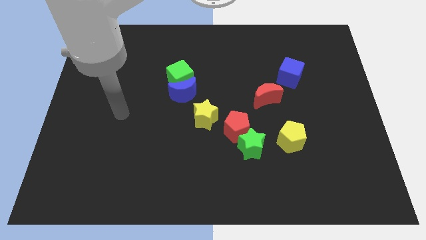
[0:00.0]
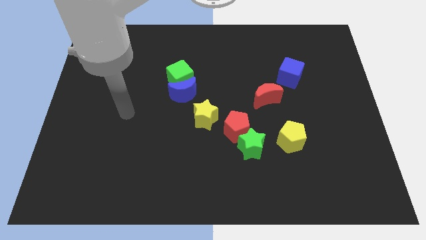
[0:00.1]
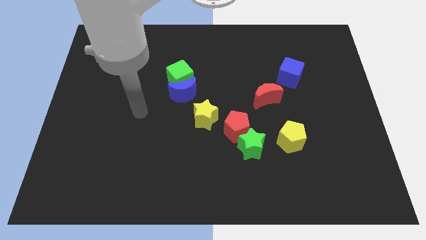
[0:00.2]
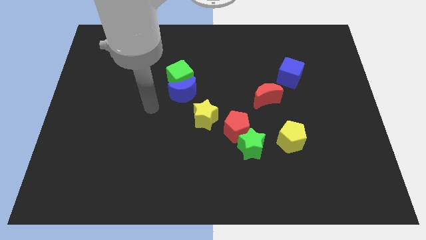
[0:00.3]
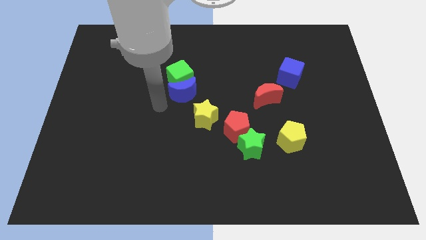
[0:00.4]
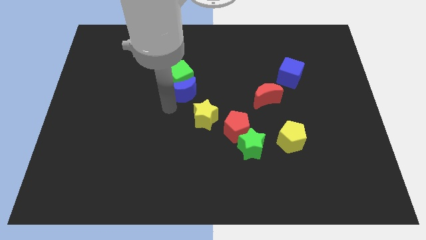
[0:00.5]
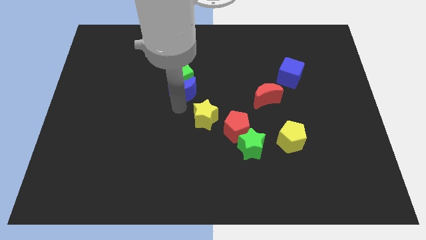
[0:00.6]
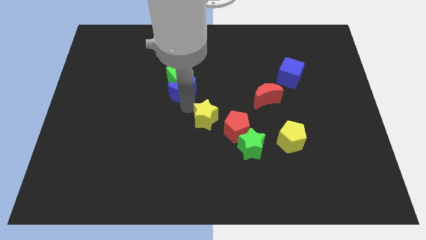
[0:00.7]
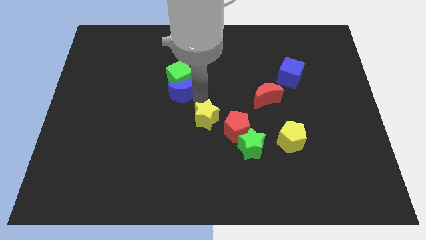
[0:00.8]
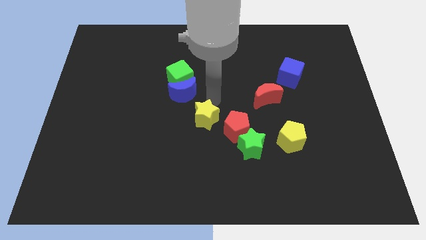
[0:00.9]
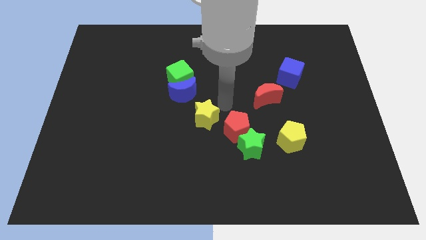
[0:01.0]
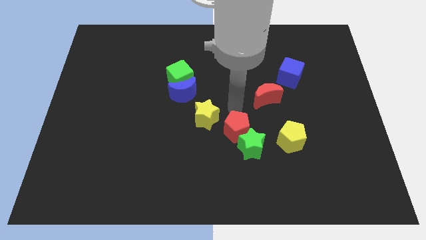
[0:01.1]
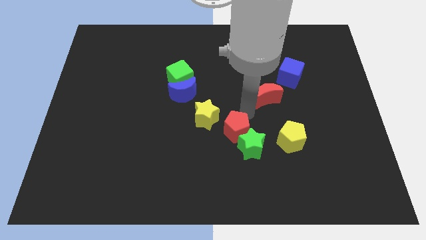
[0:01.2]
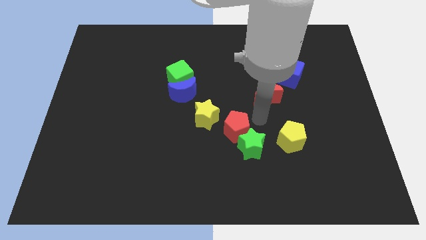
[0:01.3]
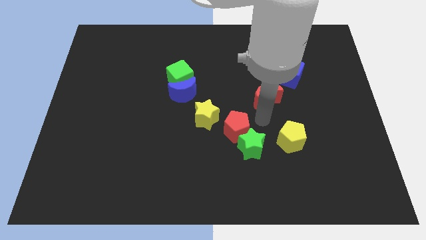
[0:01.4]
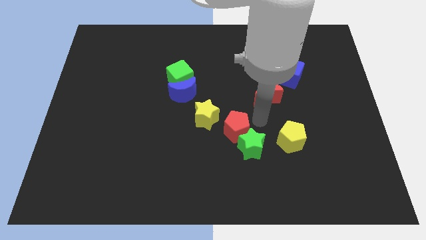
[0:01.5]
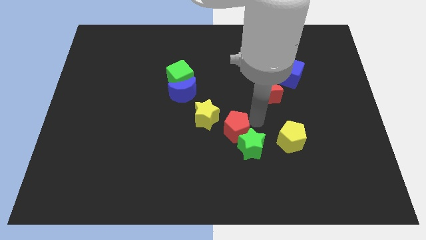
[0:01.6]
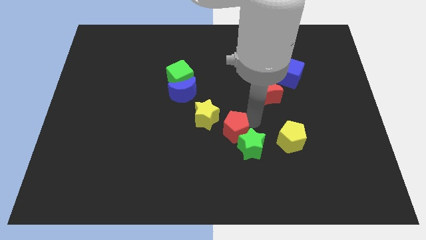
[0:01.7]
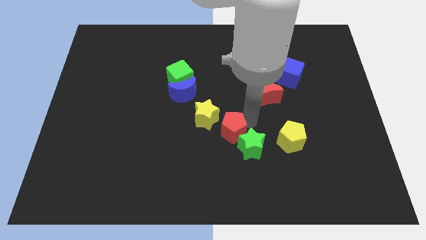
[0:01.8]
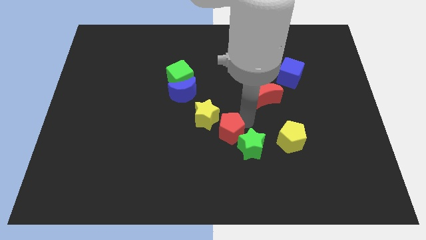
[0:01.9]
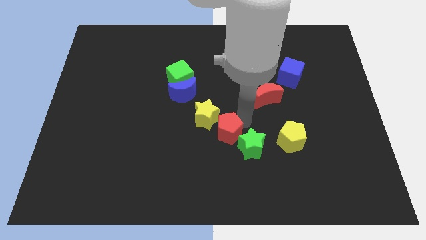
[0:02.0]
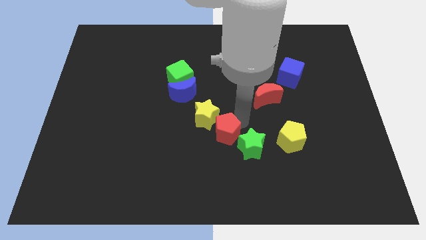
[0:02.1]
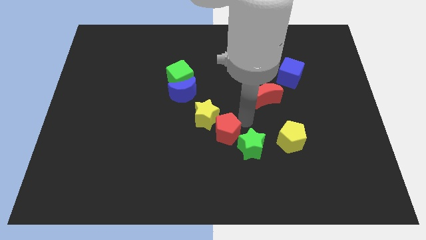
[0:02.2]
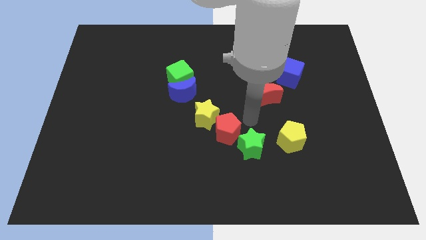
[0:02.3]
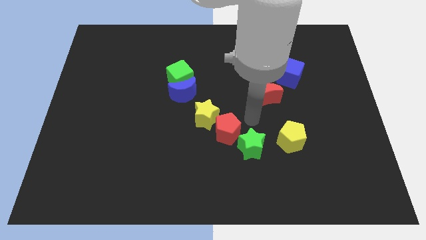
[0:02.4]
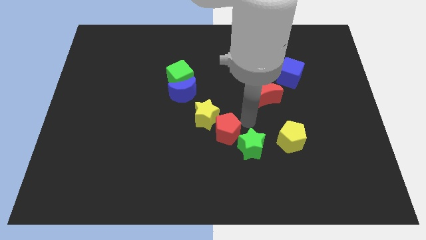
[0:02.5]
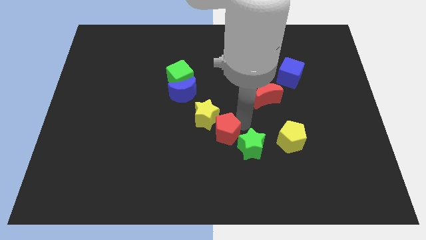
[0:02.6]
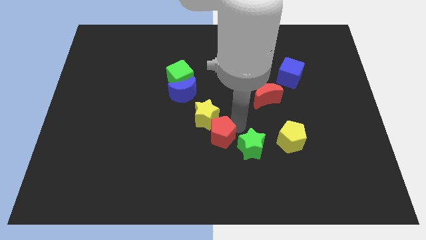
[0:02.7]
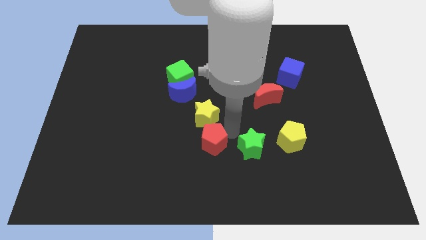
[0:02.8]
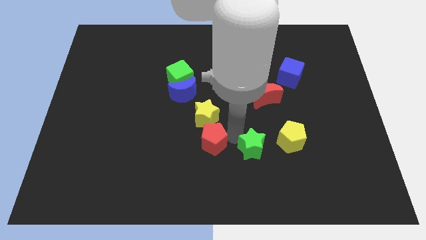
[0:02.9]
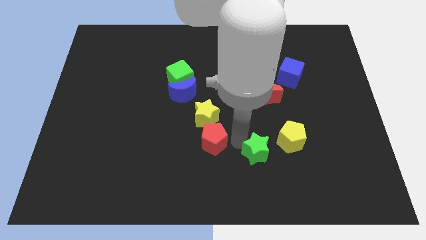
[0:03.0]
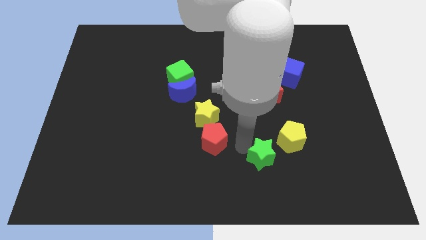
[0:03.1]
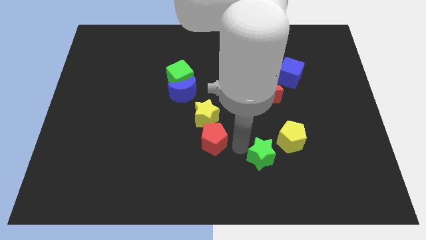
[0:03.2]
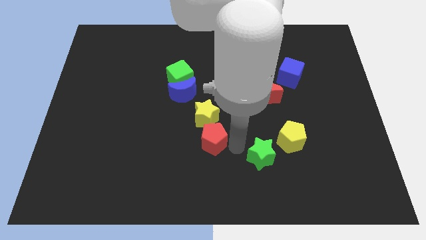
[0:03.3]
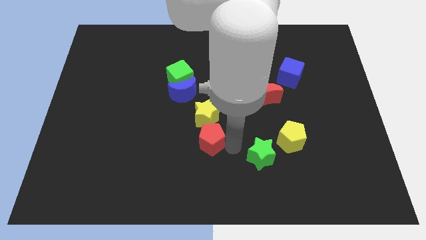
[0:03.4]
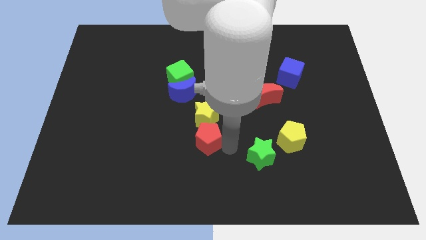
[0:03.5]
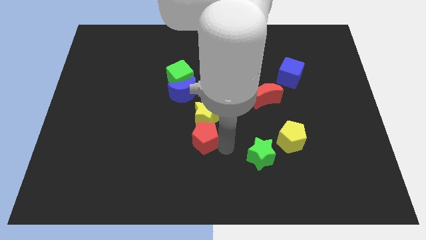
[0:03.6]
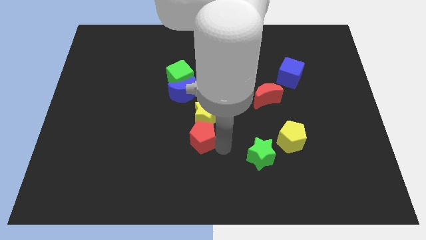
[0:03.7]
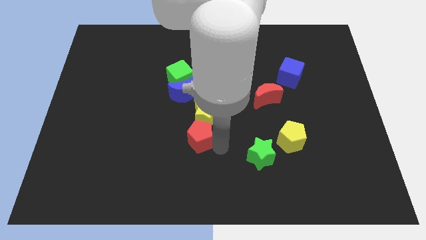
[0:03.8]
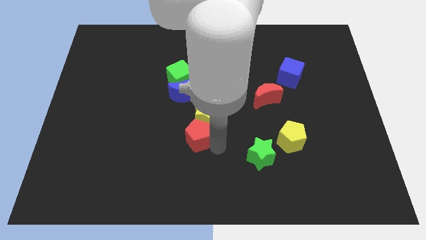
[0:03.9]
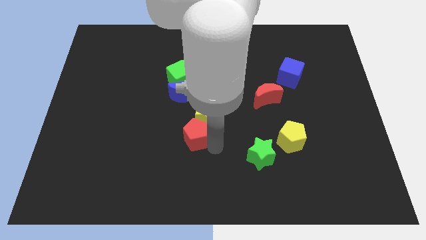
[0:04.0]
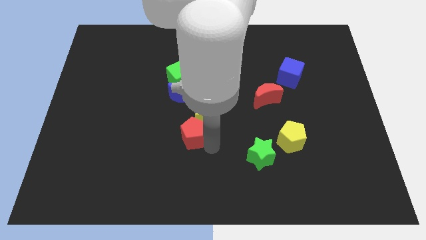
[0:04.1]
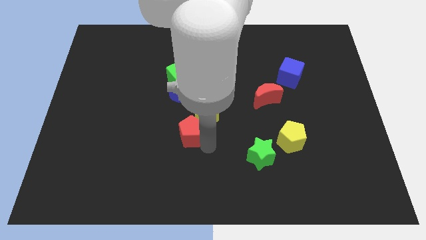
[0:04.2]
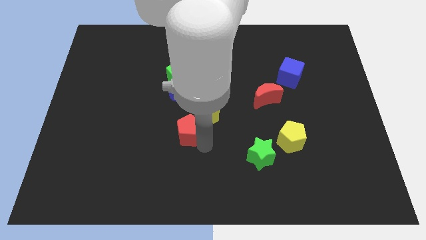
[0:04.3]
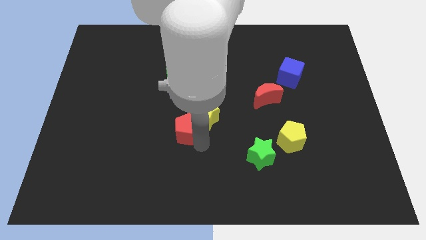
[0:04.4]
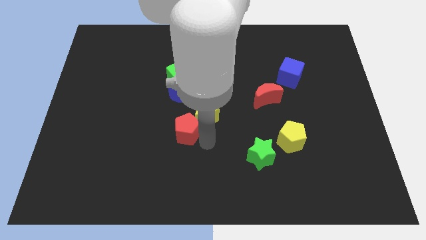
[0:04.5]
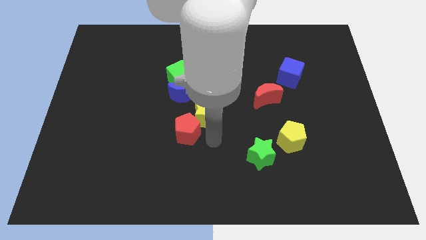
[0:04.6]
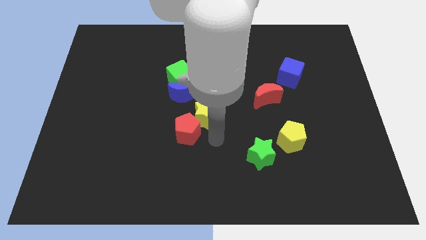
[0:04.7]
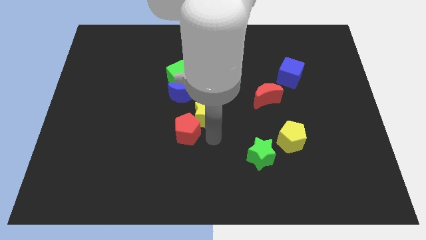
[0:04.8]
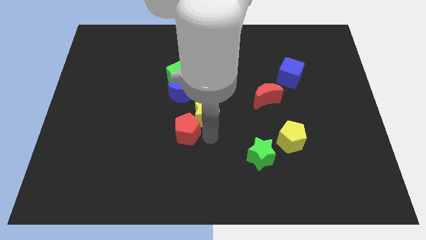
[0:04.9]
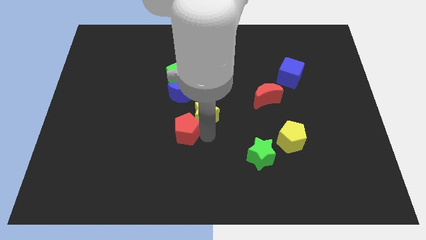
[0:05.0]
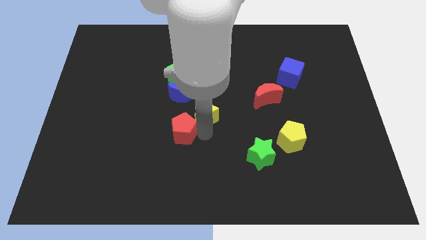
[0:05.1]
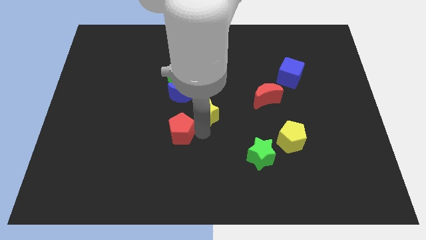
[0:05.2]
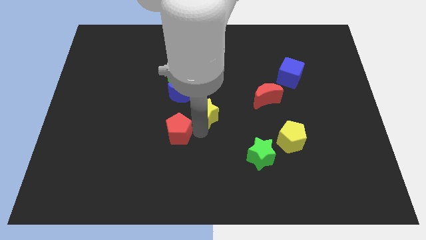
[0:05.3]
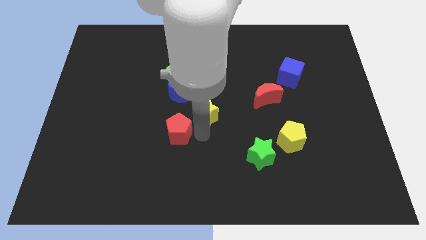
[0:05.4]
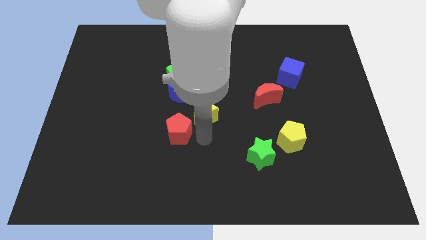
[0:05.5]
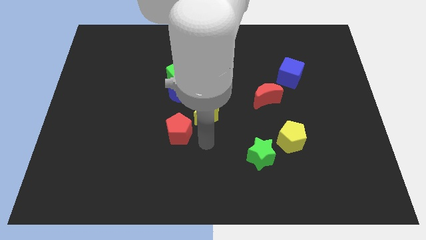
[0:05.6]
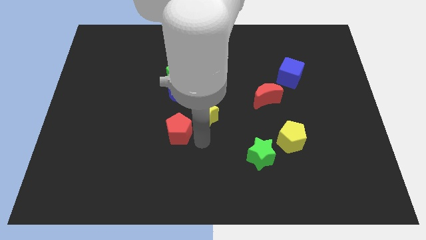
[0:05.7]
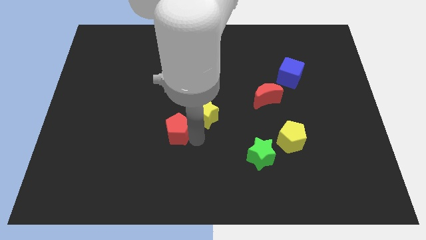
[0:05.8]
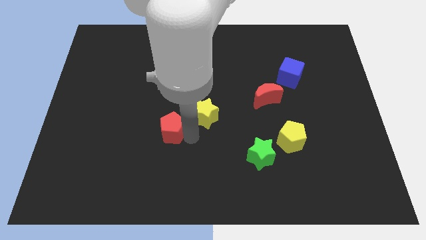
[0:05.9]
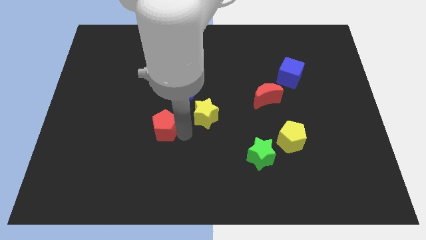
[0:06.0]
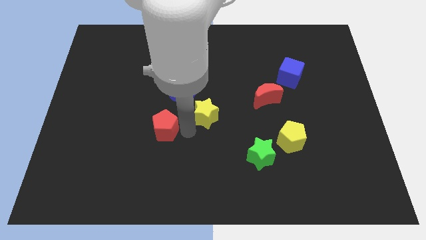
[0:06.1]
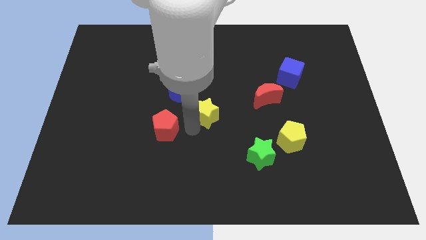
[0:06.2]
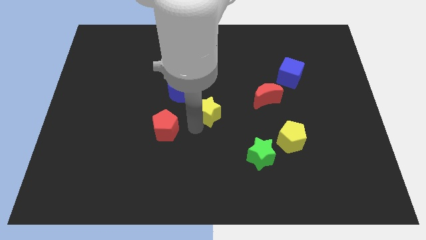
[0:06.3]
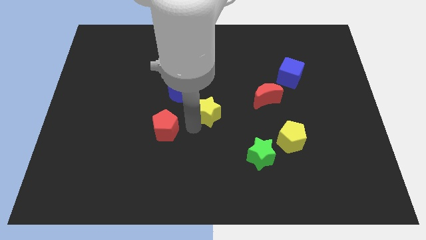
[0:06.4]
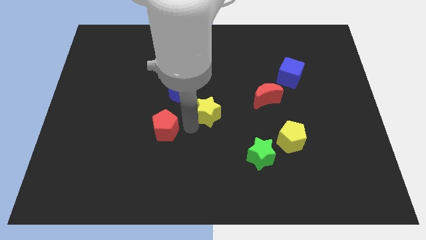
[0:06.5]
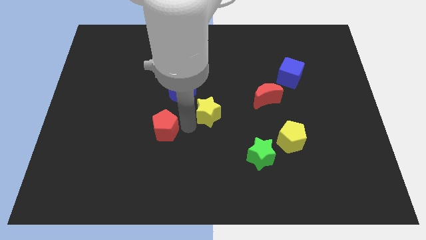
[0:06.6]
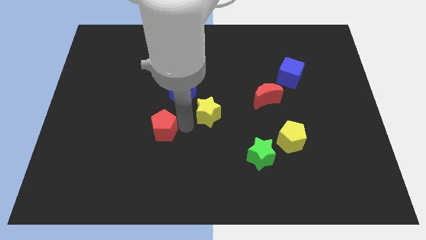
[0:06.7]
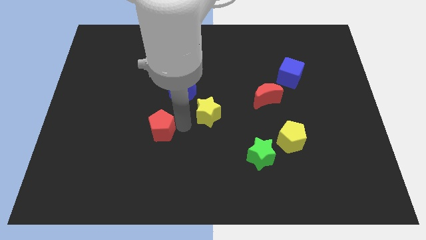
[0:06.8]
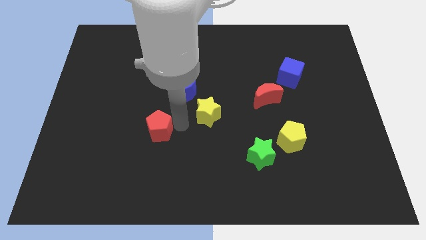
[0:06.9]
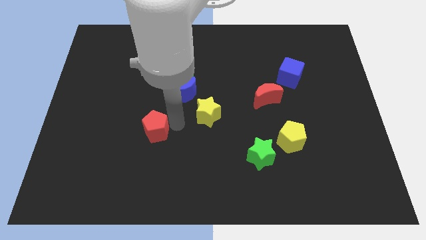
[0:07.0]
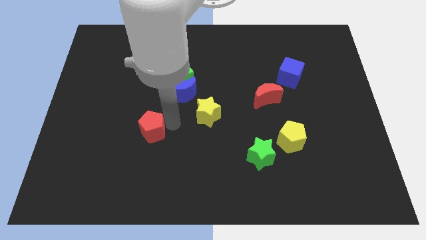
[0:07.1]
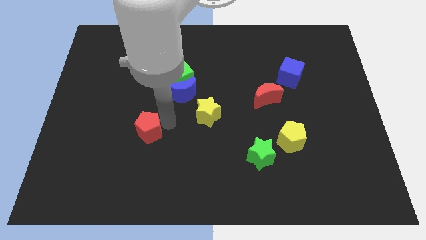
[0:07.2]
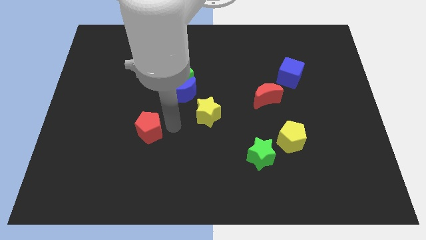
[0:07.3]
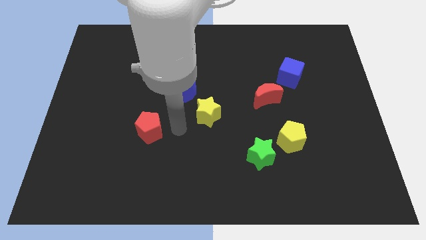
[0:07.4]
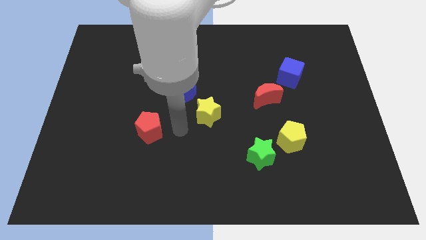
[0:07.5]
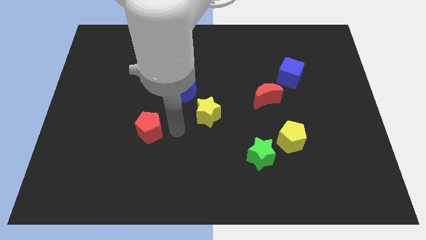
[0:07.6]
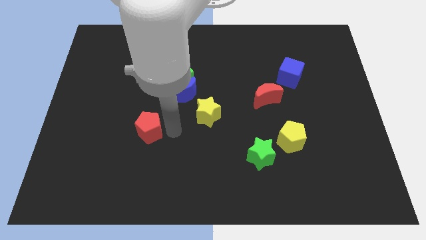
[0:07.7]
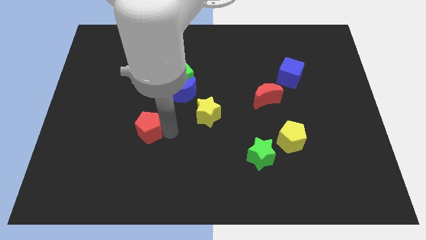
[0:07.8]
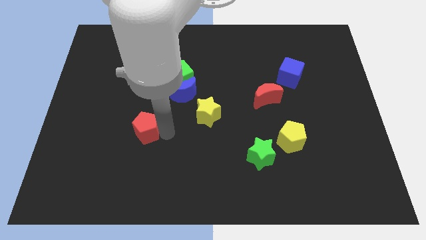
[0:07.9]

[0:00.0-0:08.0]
move the red pentagon left

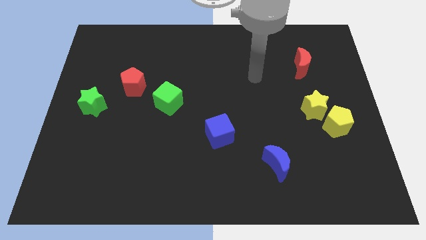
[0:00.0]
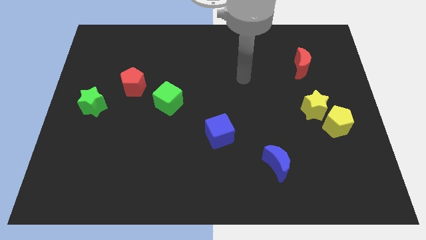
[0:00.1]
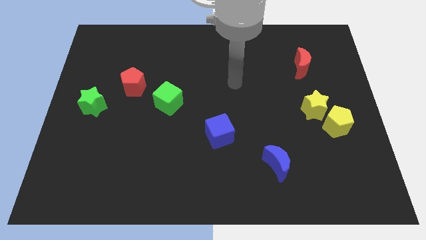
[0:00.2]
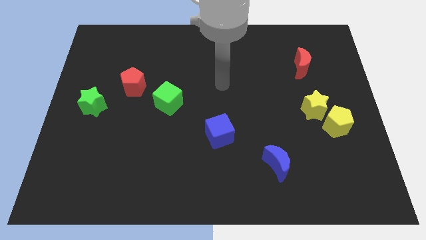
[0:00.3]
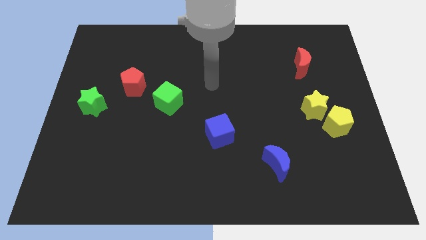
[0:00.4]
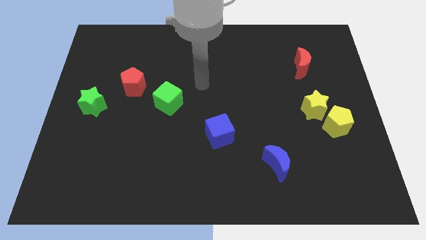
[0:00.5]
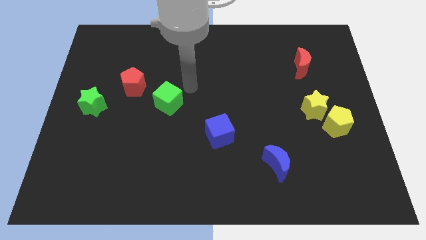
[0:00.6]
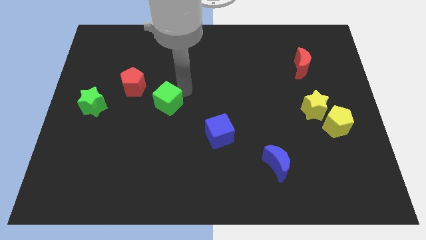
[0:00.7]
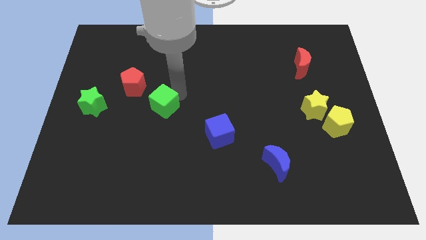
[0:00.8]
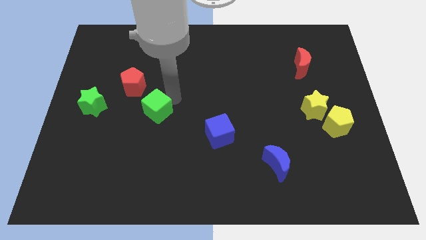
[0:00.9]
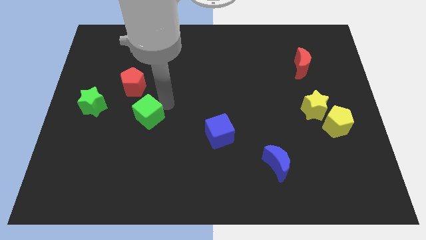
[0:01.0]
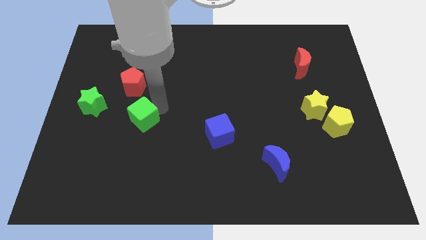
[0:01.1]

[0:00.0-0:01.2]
slightly slide the green cube down and left diagonally
